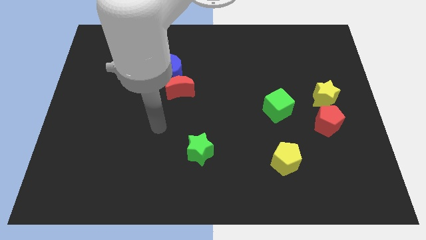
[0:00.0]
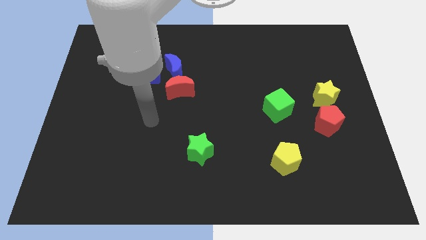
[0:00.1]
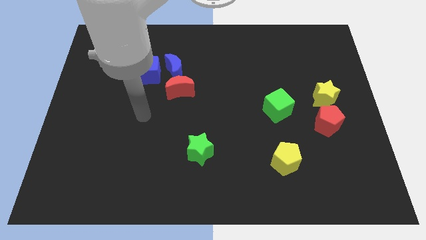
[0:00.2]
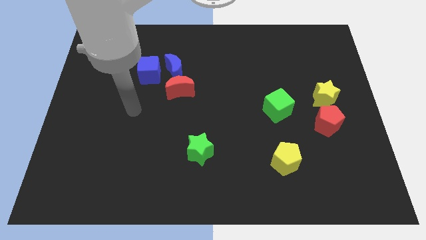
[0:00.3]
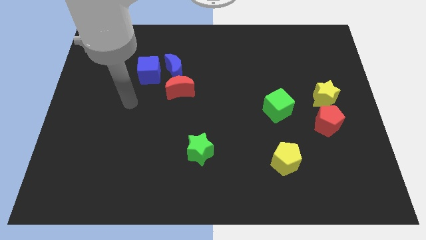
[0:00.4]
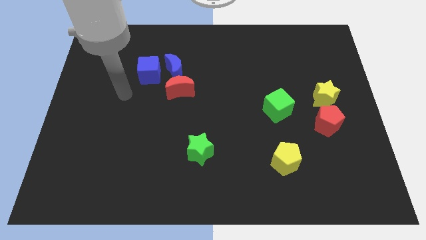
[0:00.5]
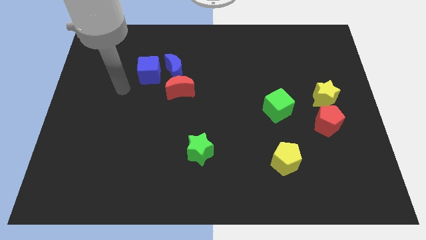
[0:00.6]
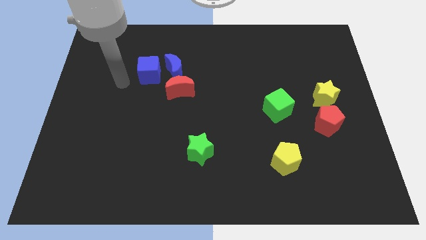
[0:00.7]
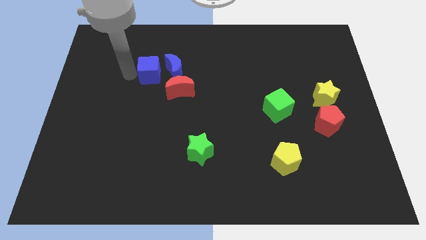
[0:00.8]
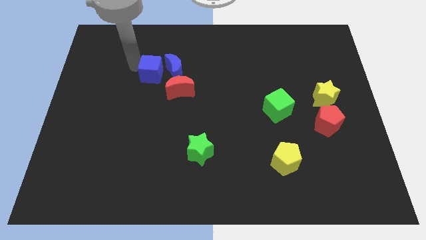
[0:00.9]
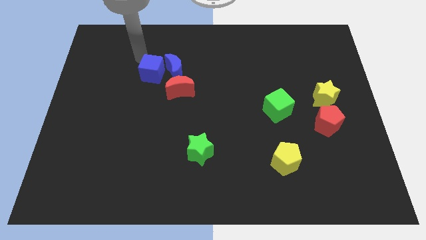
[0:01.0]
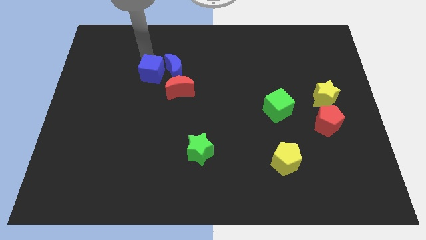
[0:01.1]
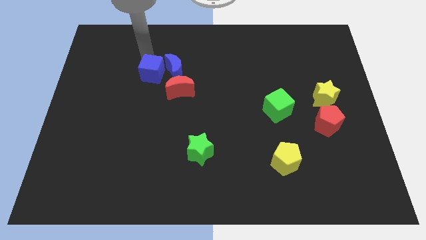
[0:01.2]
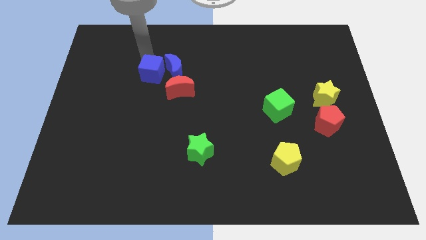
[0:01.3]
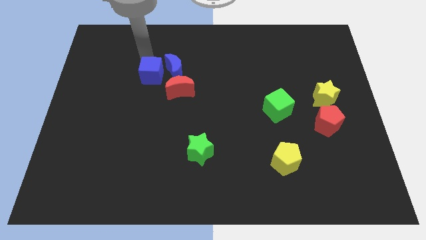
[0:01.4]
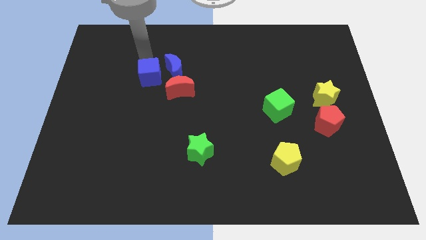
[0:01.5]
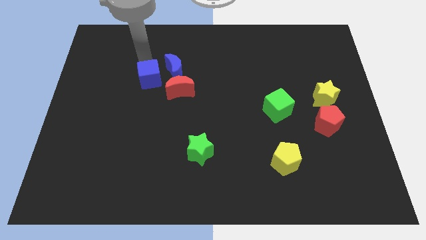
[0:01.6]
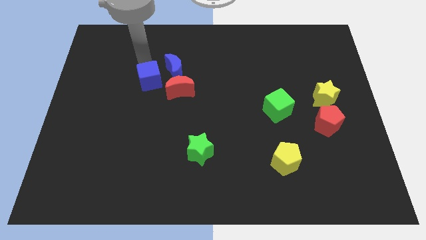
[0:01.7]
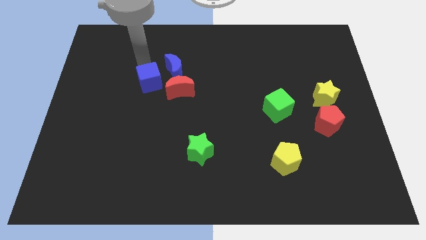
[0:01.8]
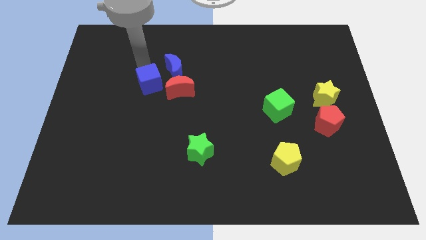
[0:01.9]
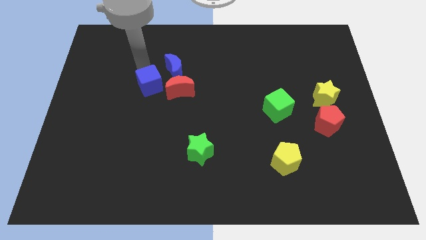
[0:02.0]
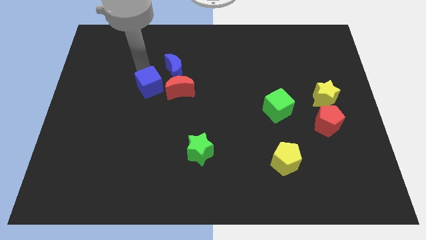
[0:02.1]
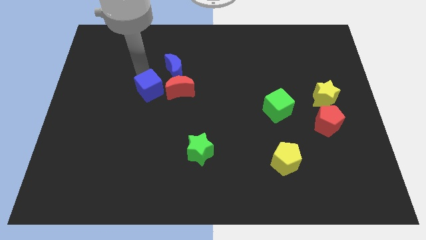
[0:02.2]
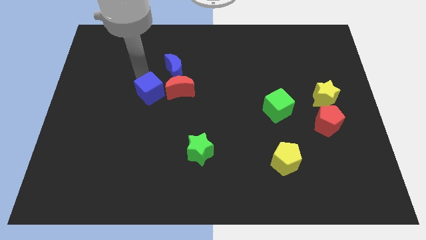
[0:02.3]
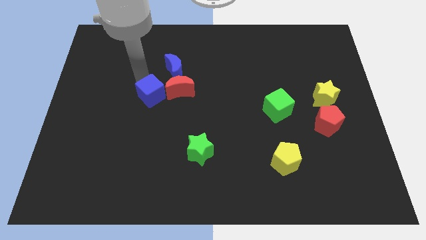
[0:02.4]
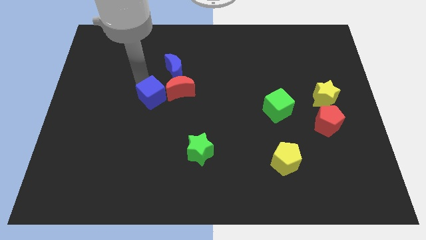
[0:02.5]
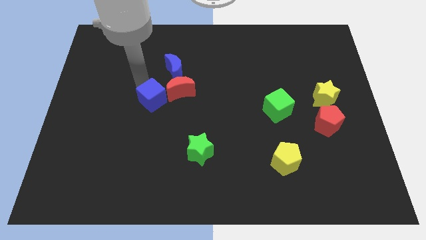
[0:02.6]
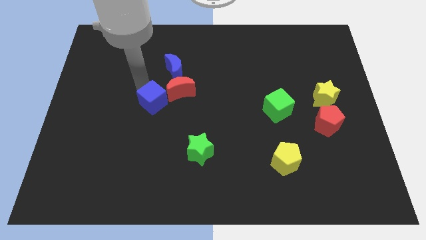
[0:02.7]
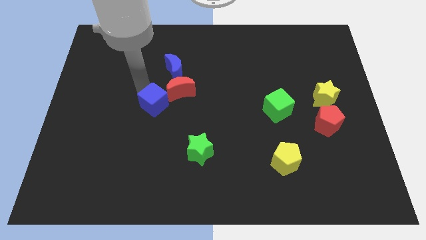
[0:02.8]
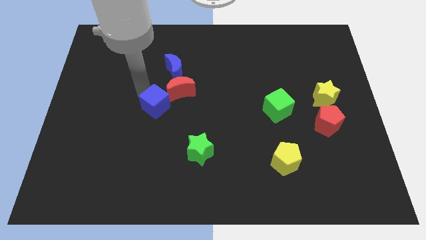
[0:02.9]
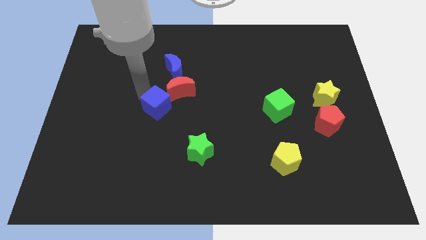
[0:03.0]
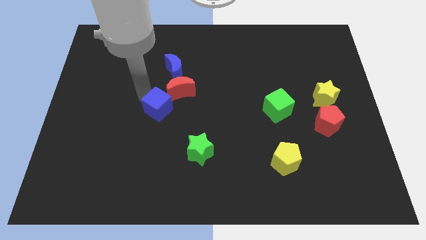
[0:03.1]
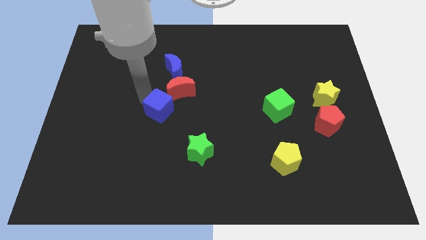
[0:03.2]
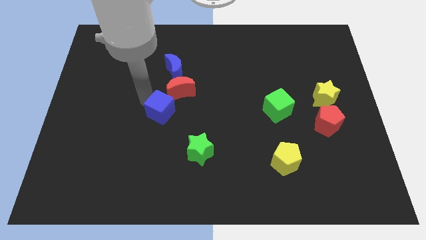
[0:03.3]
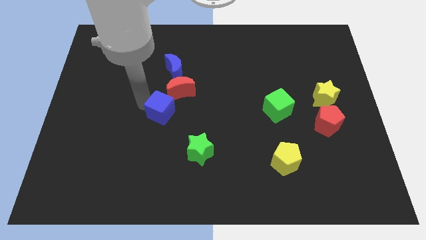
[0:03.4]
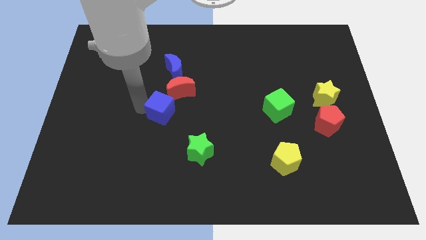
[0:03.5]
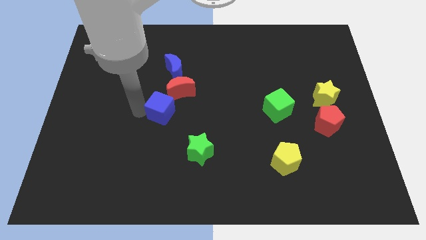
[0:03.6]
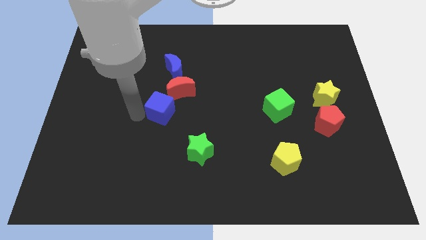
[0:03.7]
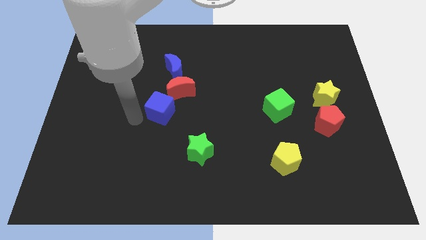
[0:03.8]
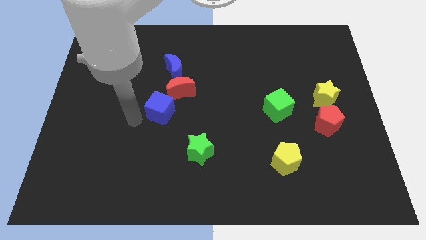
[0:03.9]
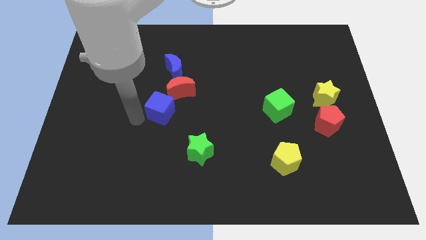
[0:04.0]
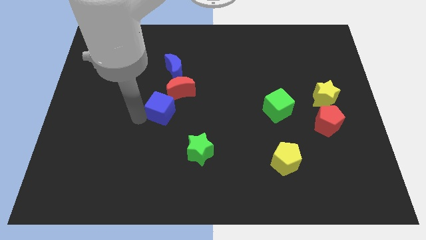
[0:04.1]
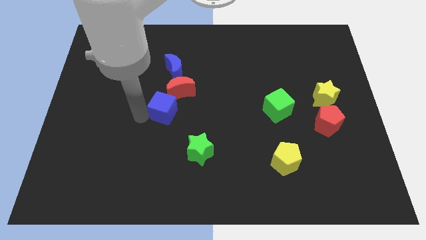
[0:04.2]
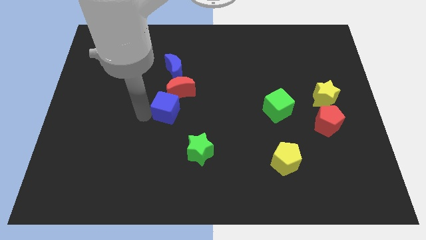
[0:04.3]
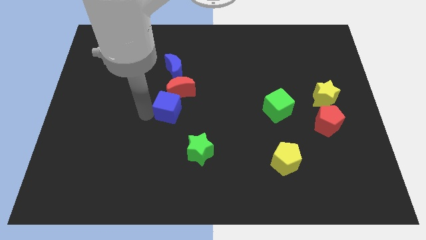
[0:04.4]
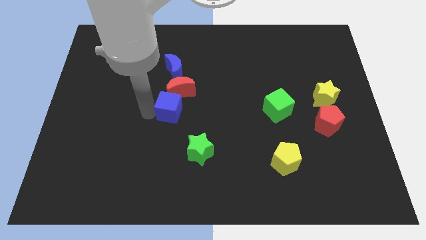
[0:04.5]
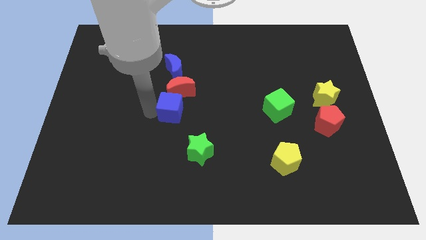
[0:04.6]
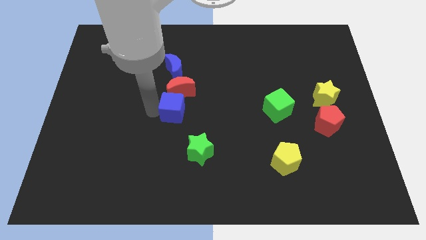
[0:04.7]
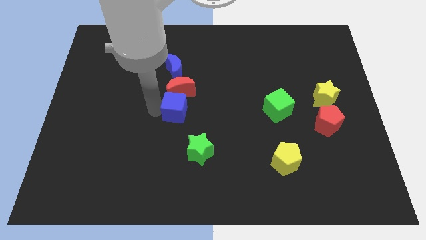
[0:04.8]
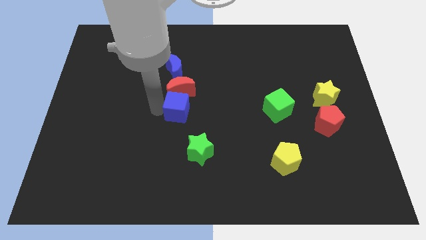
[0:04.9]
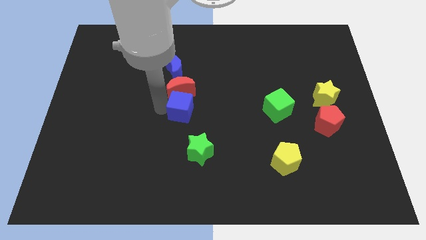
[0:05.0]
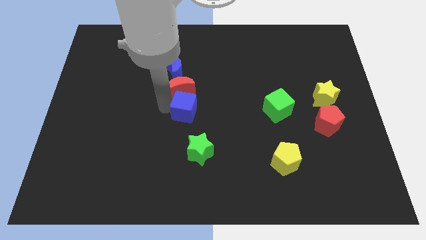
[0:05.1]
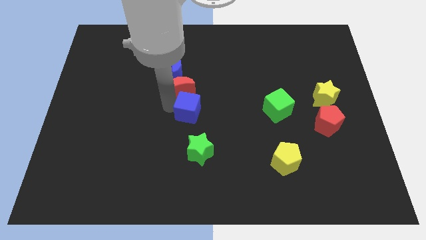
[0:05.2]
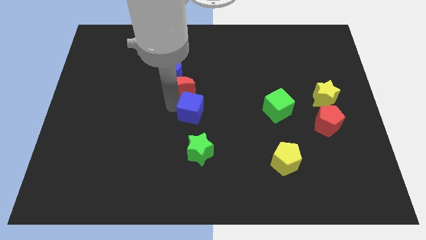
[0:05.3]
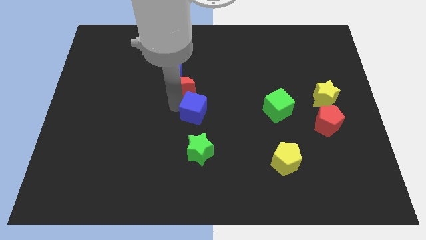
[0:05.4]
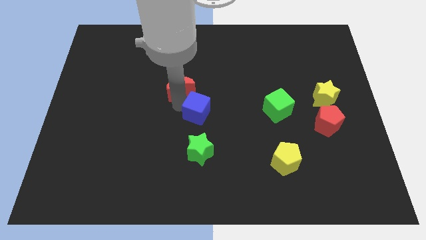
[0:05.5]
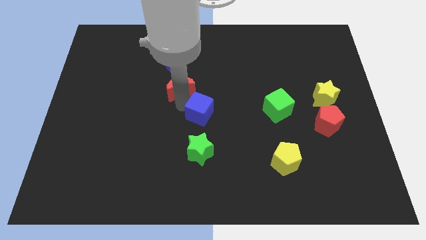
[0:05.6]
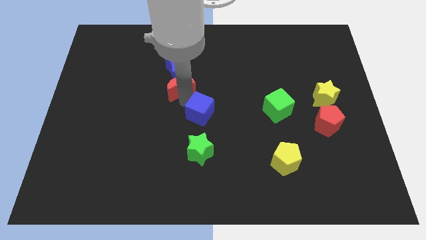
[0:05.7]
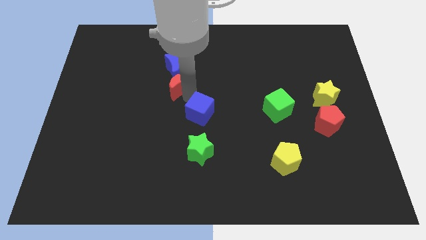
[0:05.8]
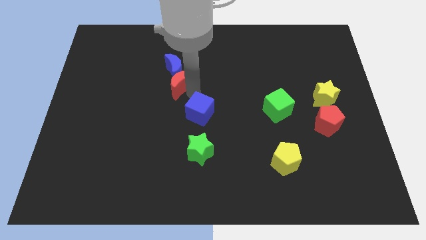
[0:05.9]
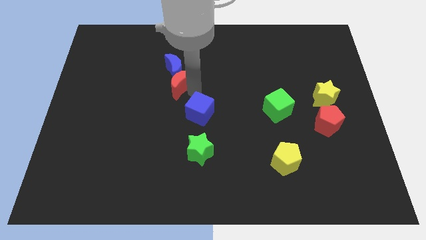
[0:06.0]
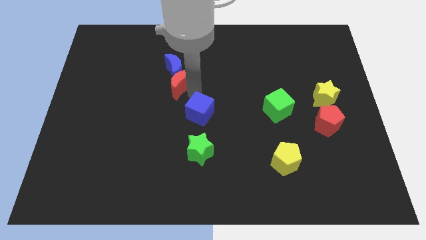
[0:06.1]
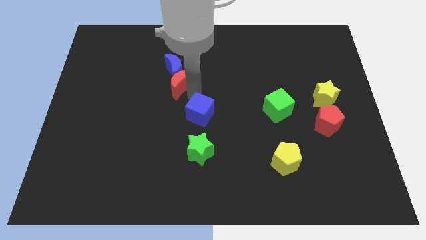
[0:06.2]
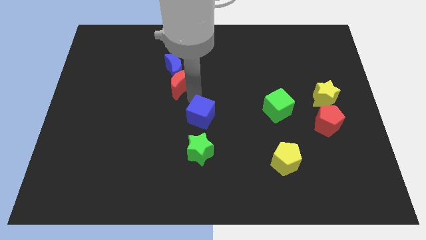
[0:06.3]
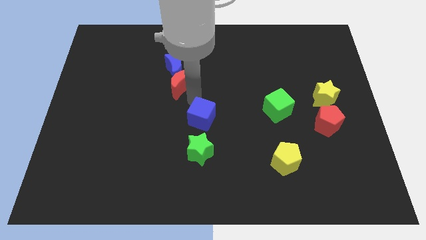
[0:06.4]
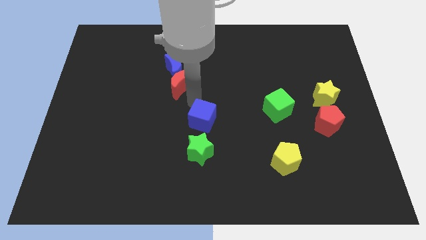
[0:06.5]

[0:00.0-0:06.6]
move the blue cube diagonally down and right

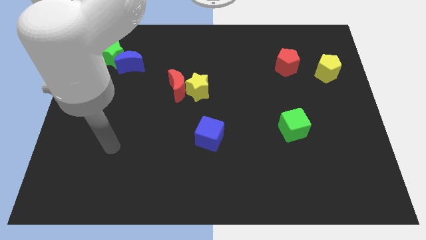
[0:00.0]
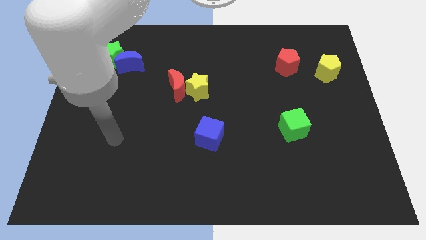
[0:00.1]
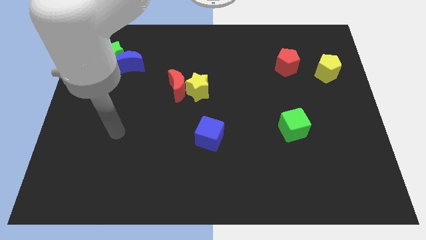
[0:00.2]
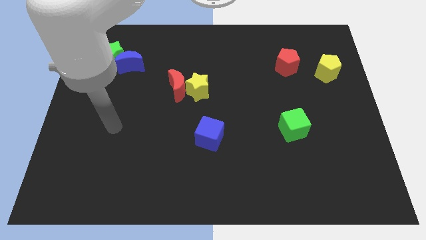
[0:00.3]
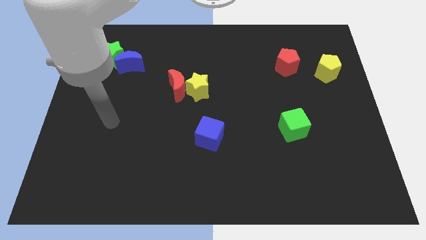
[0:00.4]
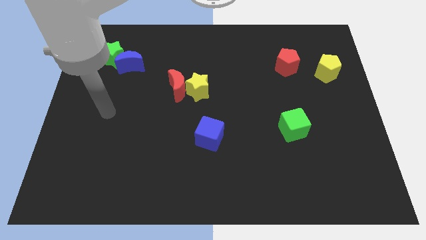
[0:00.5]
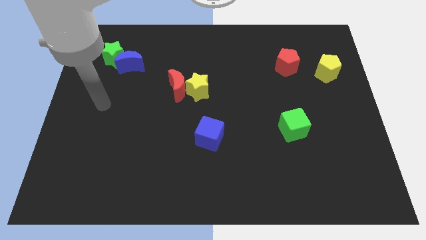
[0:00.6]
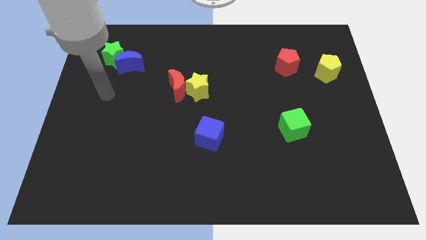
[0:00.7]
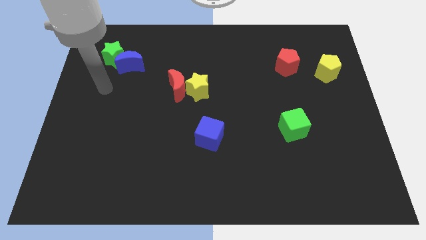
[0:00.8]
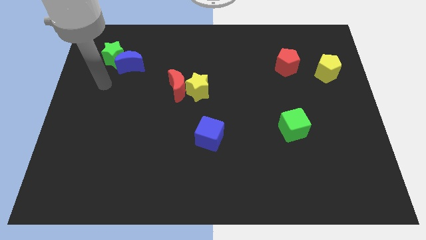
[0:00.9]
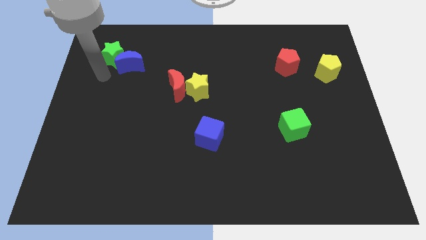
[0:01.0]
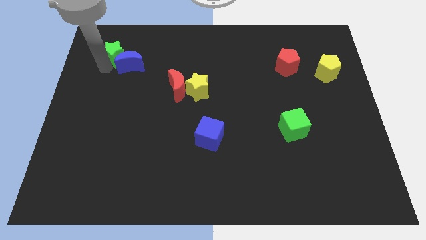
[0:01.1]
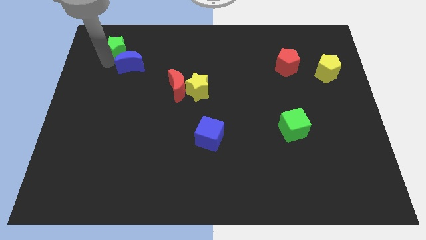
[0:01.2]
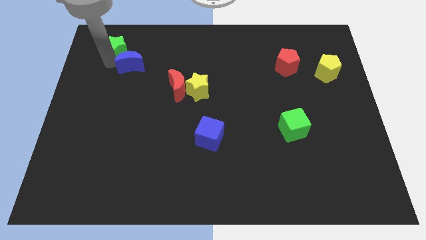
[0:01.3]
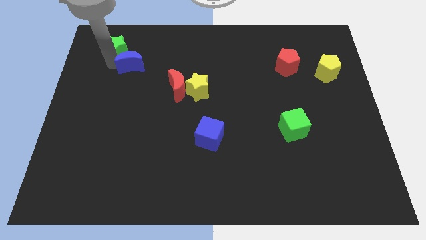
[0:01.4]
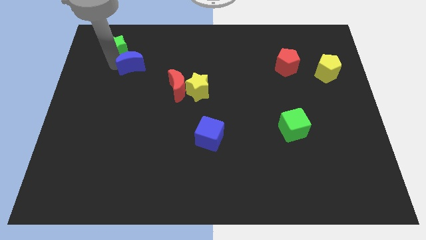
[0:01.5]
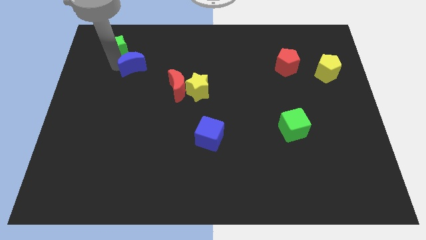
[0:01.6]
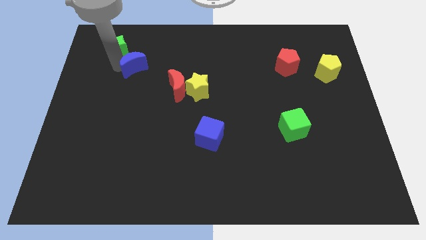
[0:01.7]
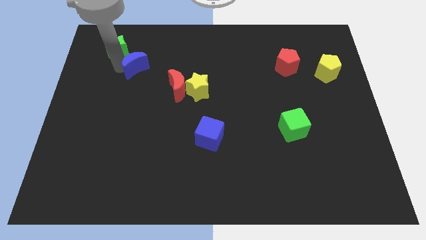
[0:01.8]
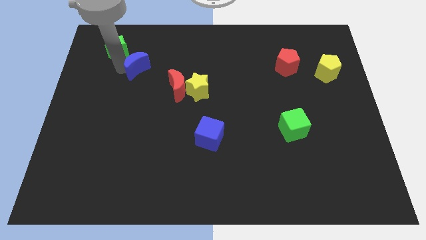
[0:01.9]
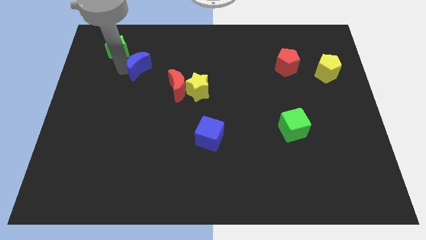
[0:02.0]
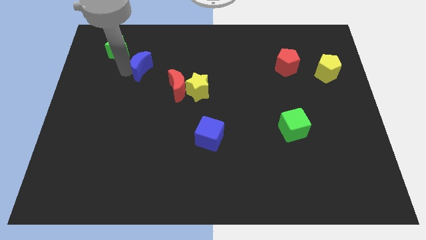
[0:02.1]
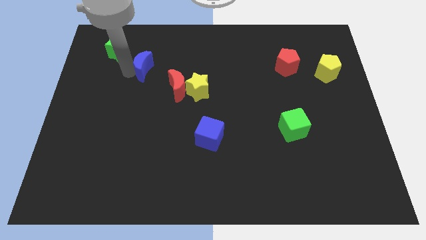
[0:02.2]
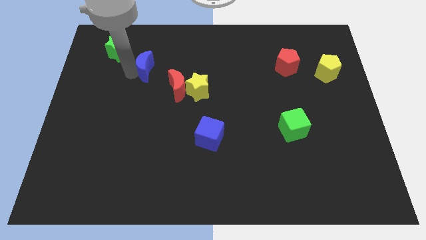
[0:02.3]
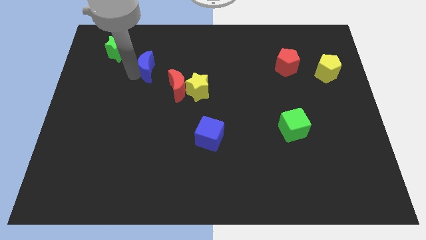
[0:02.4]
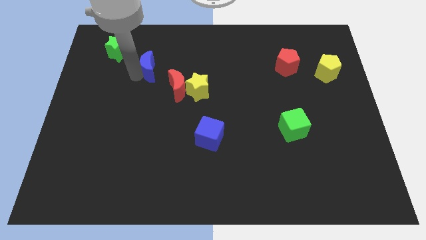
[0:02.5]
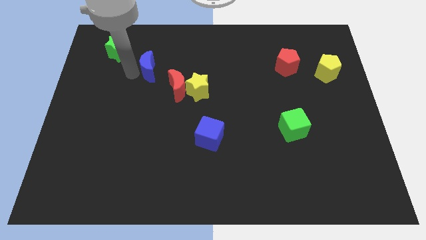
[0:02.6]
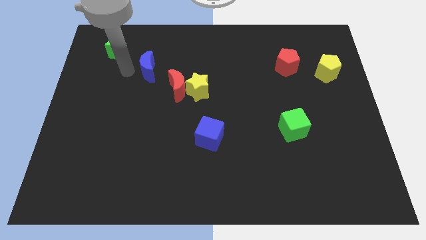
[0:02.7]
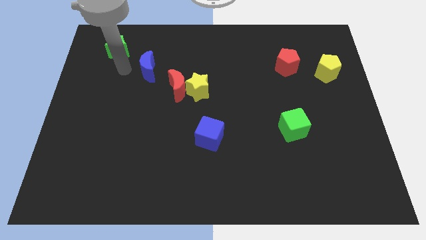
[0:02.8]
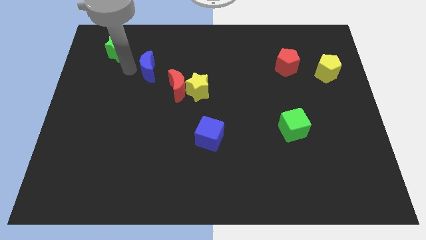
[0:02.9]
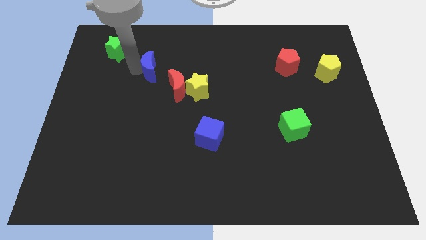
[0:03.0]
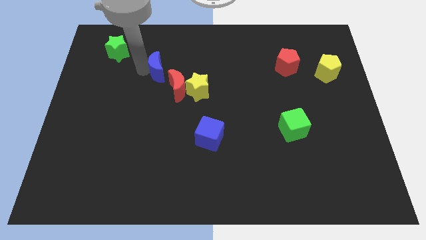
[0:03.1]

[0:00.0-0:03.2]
push the blue moon to the right somewhat
